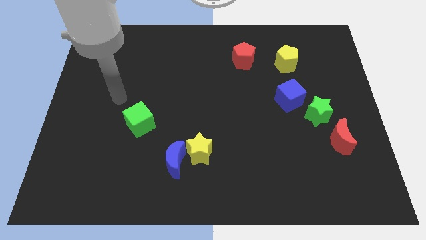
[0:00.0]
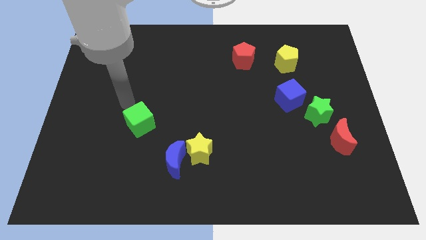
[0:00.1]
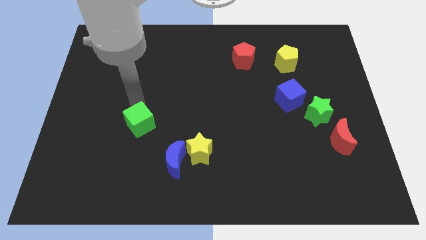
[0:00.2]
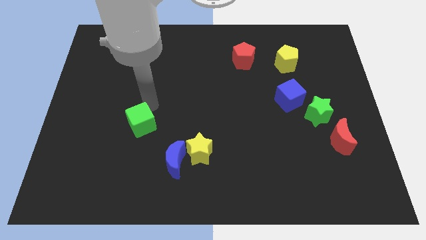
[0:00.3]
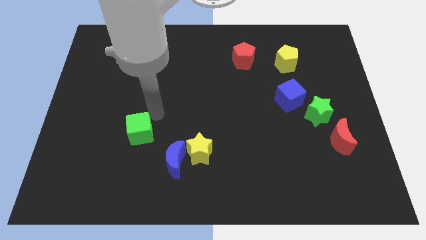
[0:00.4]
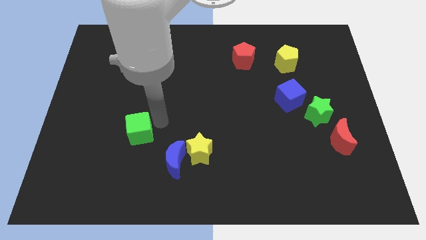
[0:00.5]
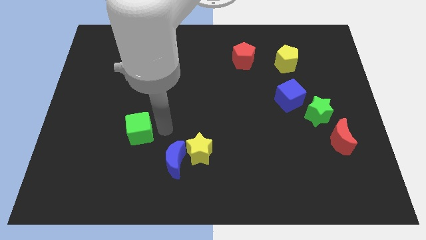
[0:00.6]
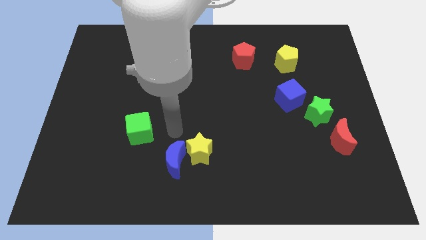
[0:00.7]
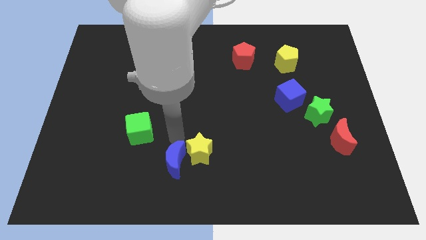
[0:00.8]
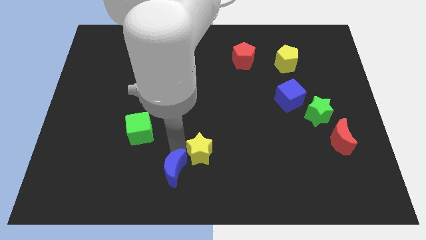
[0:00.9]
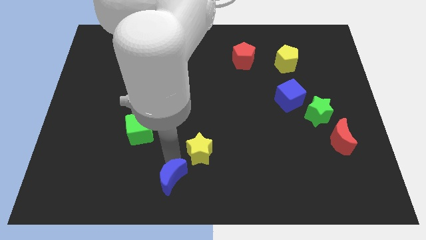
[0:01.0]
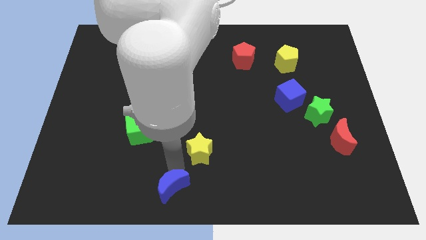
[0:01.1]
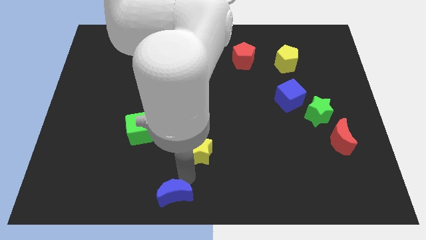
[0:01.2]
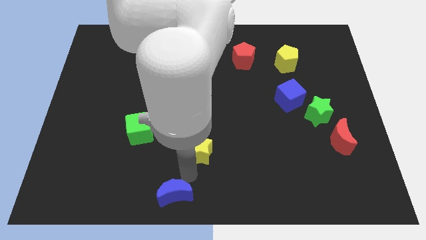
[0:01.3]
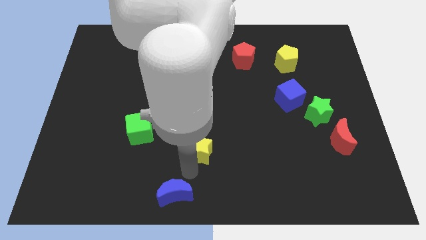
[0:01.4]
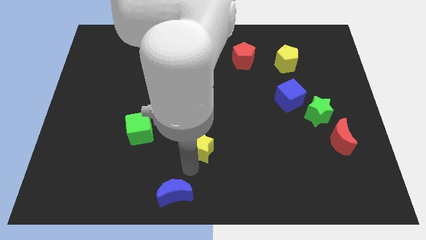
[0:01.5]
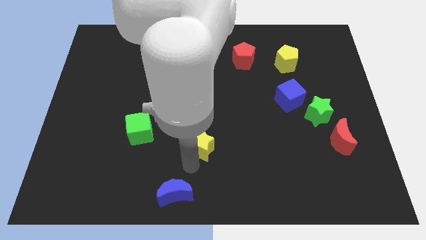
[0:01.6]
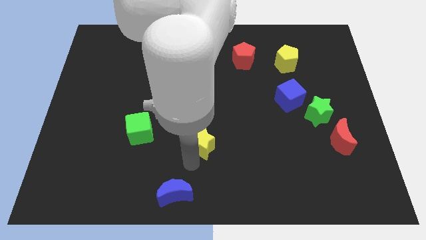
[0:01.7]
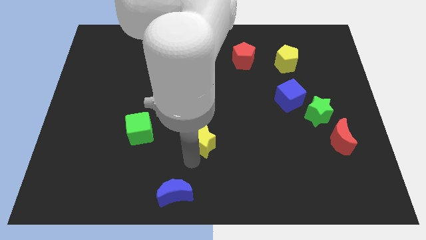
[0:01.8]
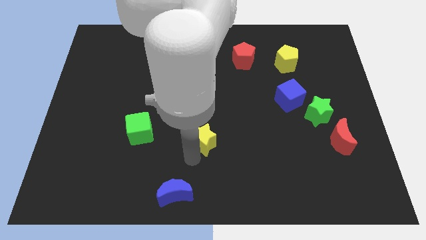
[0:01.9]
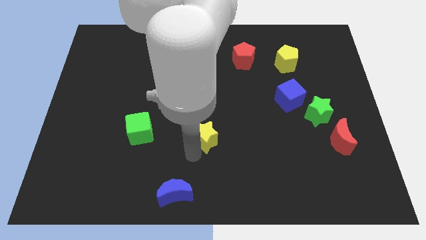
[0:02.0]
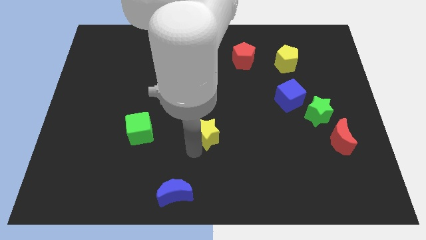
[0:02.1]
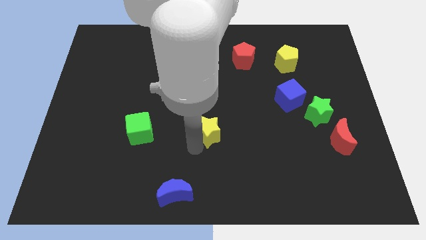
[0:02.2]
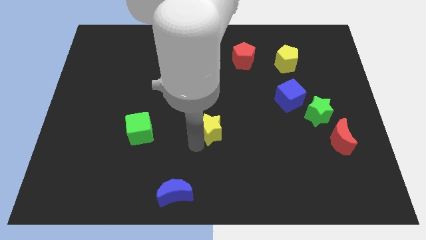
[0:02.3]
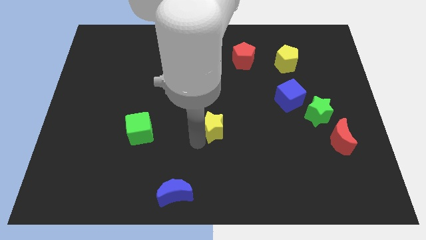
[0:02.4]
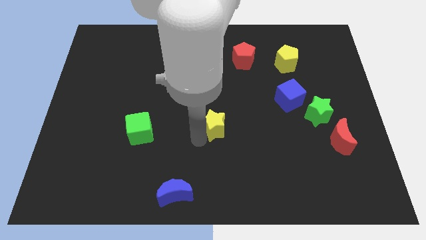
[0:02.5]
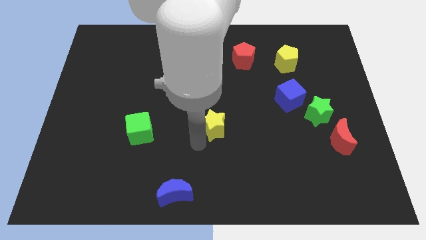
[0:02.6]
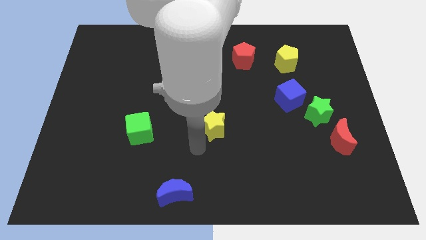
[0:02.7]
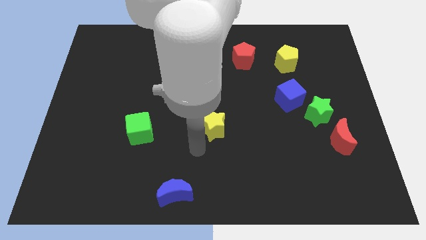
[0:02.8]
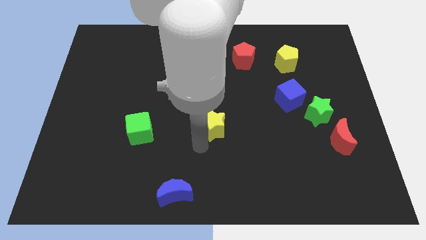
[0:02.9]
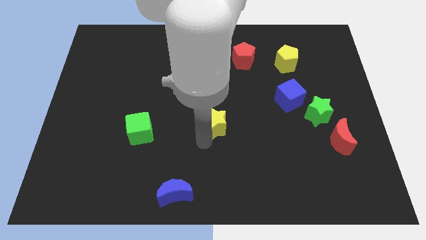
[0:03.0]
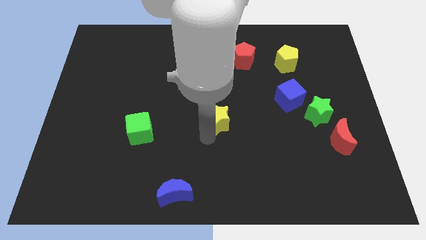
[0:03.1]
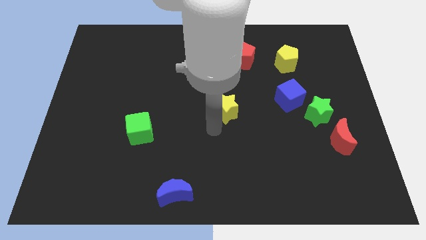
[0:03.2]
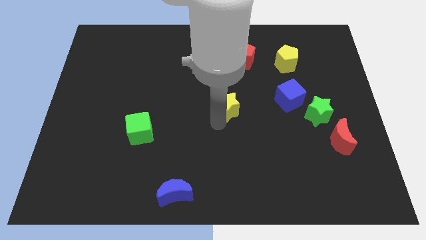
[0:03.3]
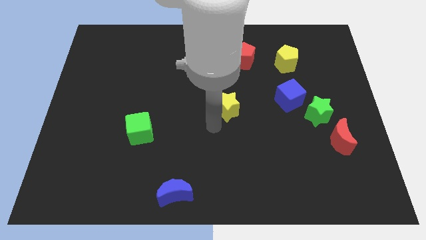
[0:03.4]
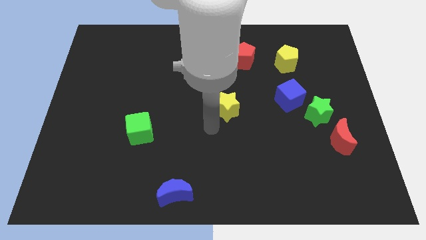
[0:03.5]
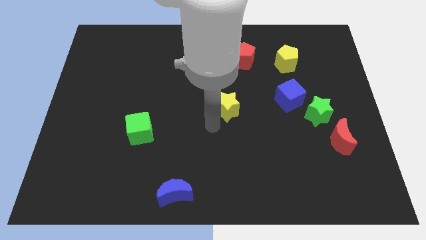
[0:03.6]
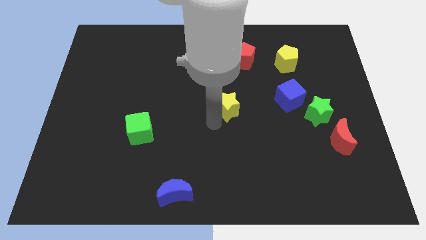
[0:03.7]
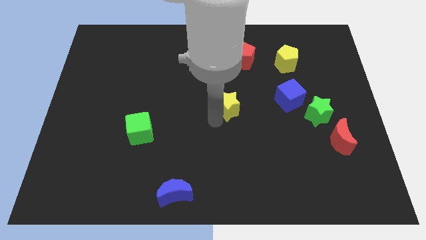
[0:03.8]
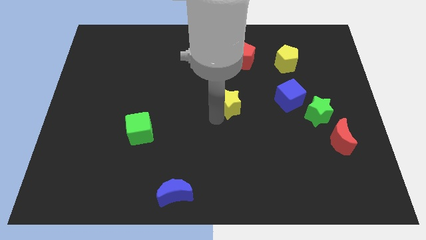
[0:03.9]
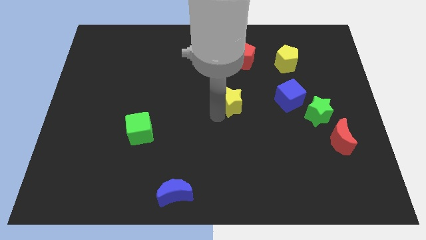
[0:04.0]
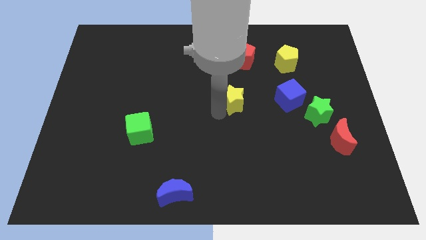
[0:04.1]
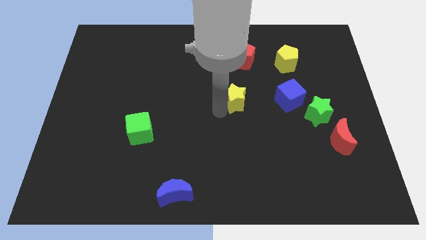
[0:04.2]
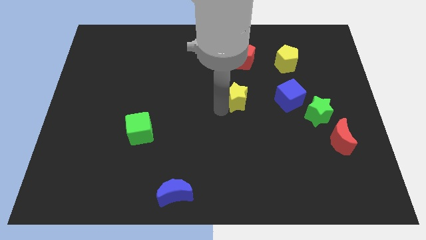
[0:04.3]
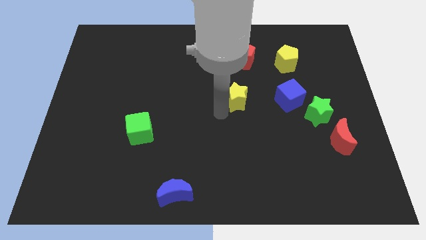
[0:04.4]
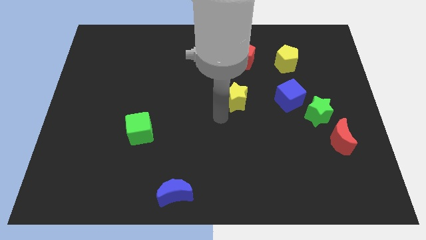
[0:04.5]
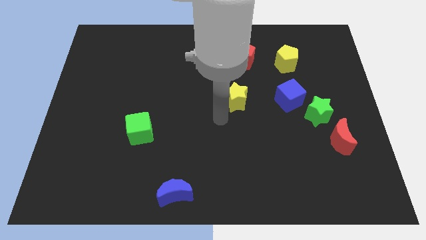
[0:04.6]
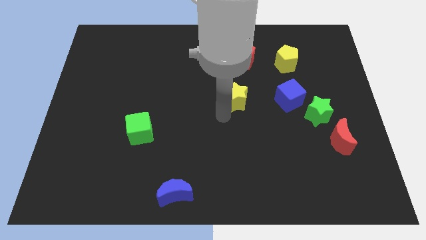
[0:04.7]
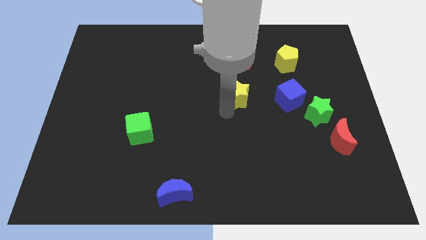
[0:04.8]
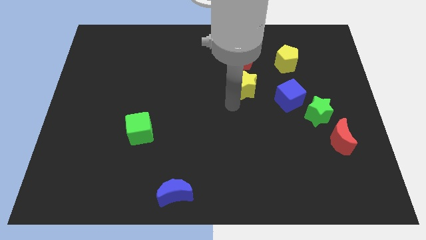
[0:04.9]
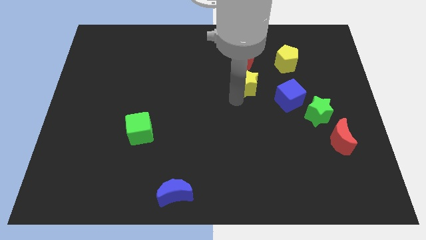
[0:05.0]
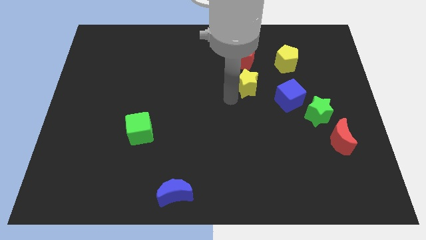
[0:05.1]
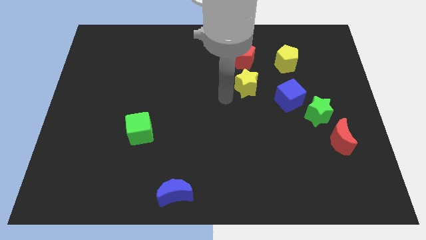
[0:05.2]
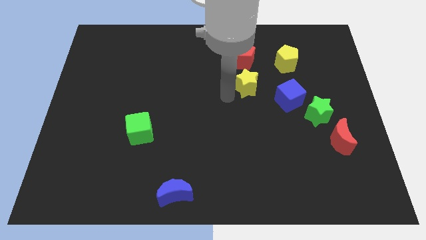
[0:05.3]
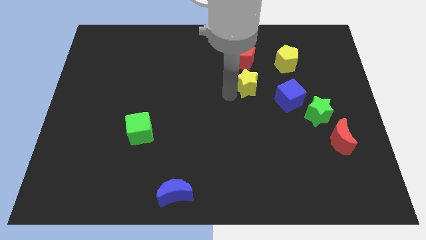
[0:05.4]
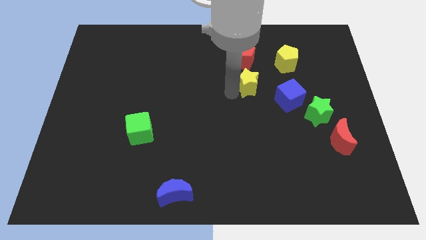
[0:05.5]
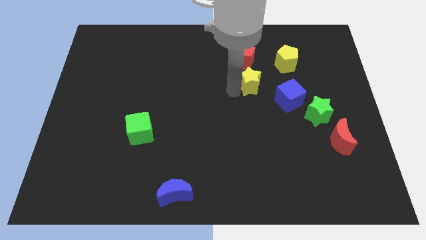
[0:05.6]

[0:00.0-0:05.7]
slide the yellow star diagonally down and to the left of the yellow pentagon

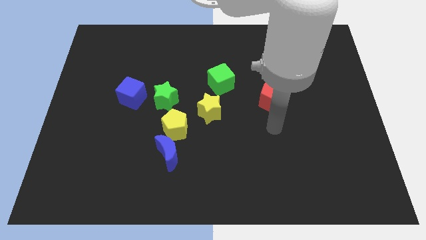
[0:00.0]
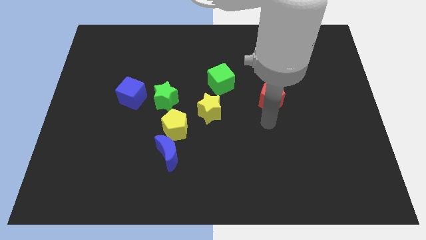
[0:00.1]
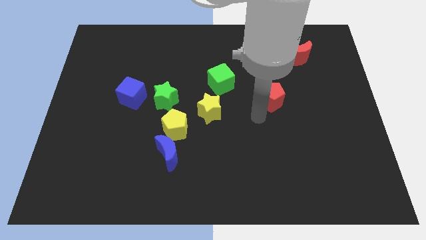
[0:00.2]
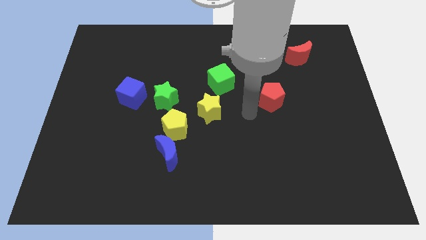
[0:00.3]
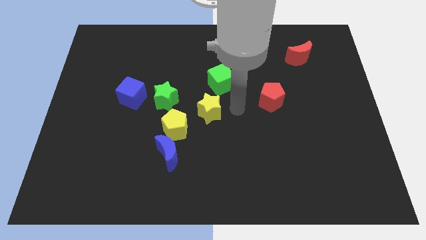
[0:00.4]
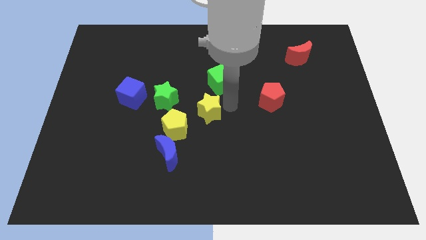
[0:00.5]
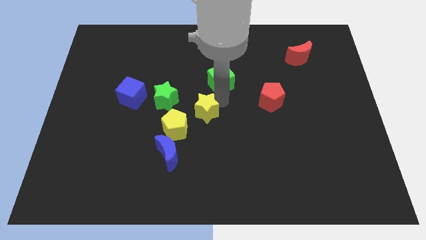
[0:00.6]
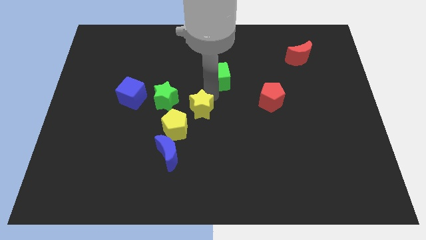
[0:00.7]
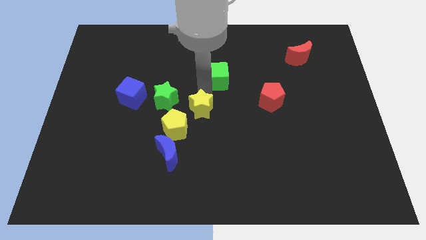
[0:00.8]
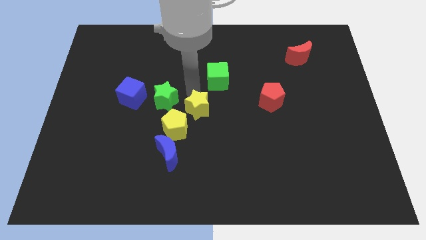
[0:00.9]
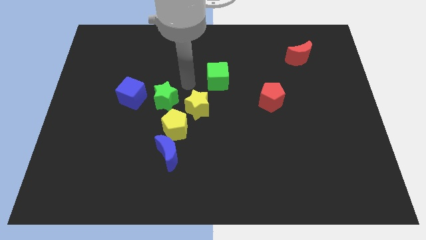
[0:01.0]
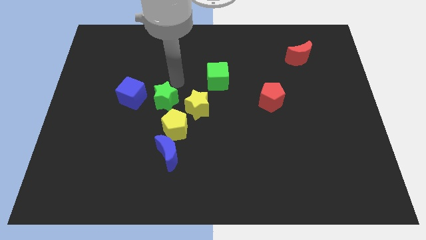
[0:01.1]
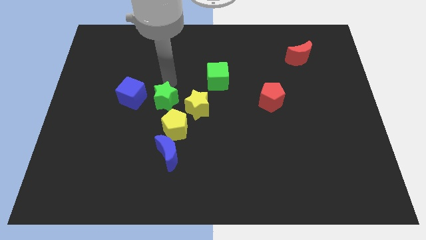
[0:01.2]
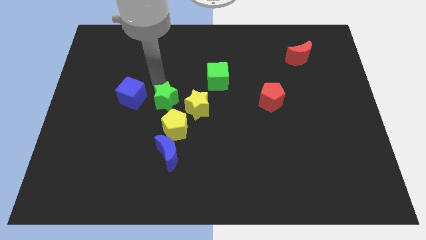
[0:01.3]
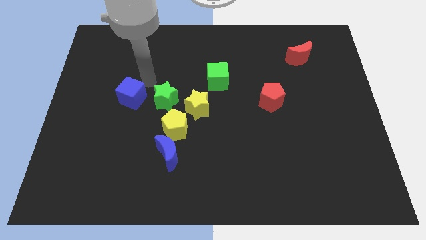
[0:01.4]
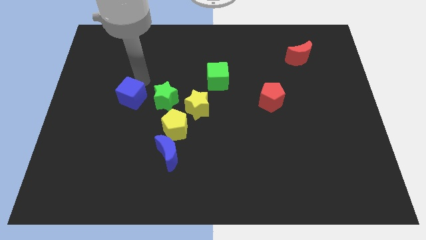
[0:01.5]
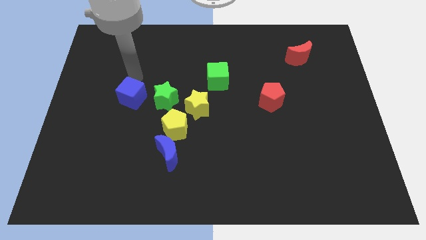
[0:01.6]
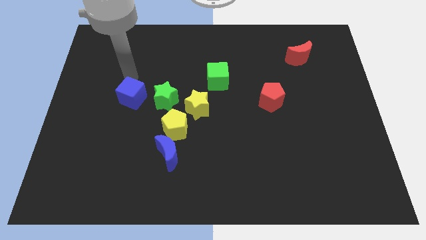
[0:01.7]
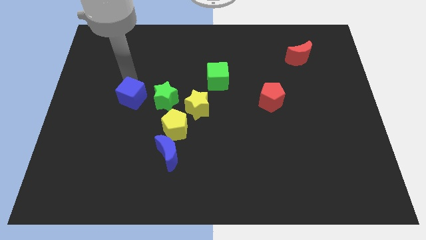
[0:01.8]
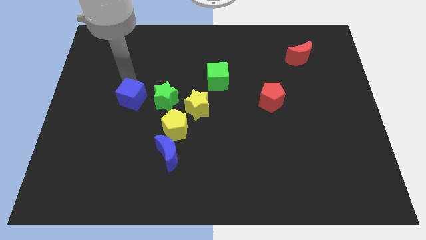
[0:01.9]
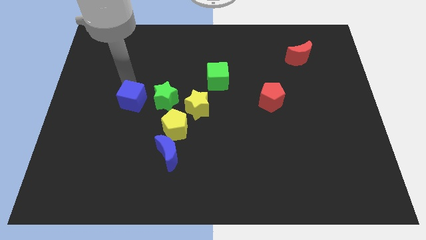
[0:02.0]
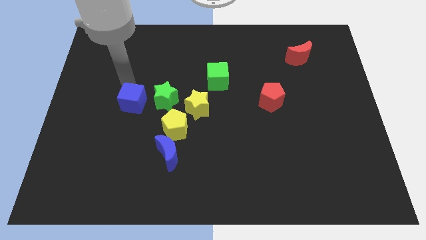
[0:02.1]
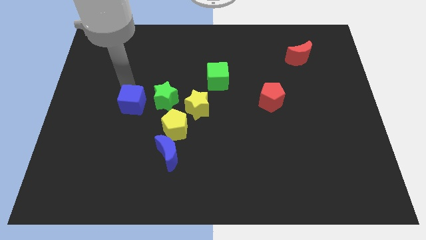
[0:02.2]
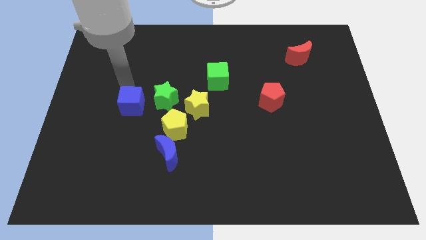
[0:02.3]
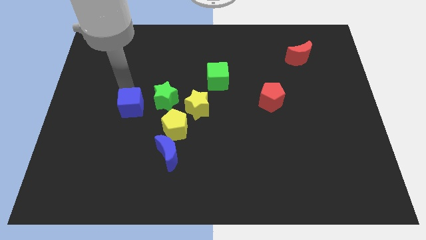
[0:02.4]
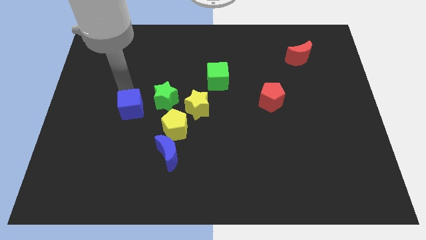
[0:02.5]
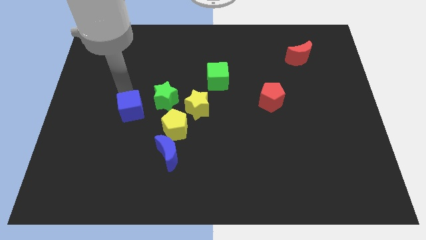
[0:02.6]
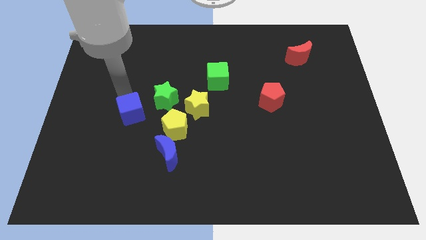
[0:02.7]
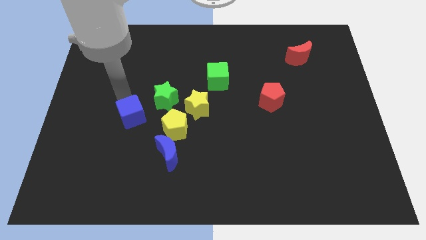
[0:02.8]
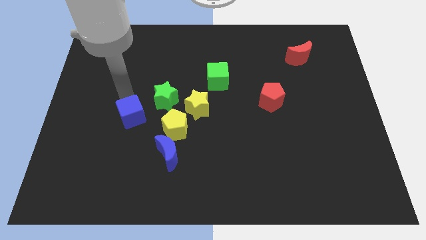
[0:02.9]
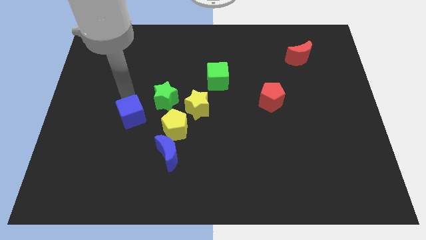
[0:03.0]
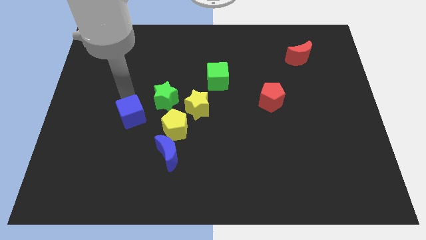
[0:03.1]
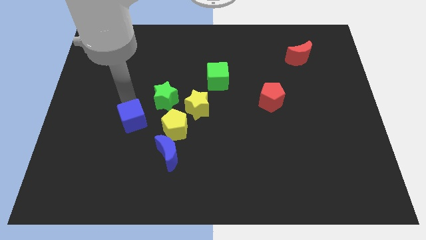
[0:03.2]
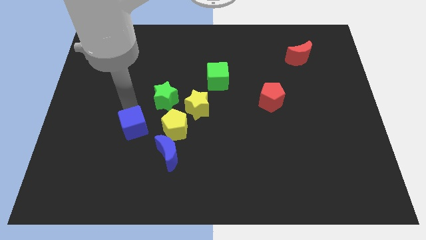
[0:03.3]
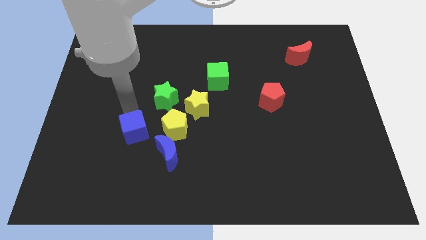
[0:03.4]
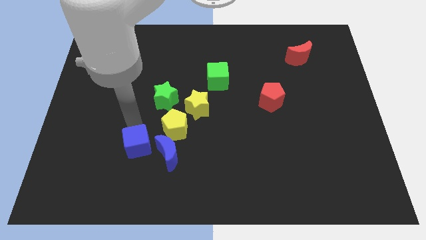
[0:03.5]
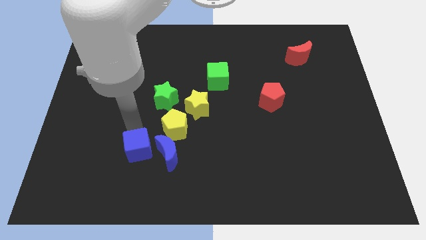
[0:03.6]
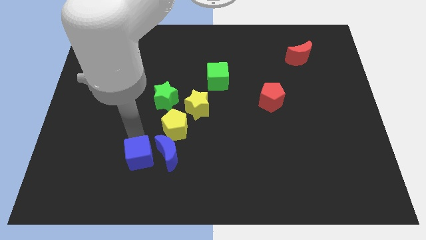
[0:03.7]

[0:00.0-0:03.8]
slide the blue cube to the bottom left of the blue moon
